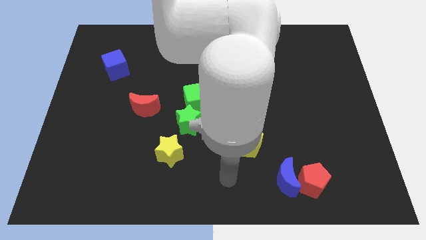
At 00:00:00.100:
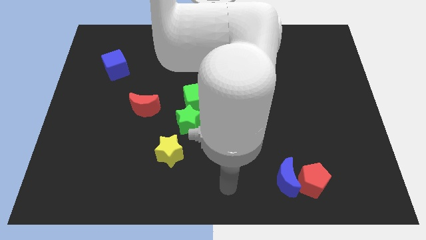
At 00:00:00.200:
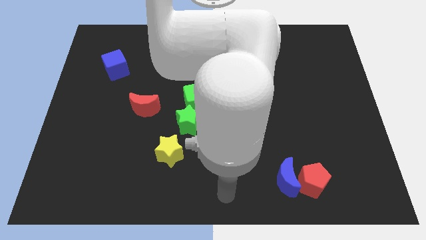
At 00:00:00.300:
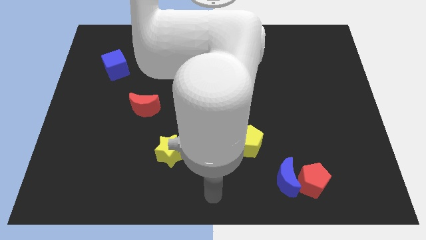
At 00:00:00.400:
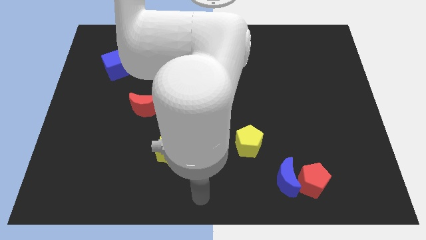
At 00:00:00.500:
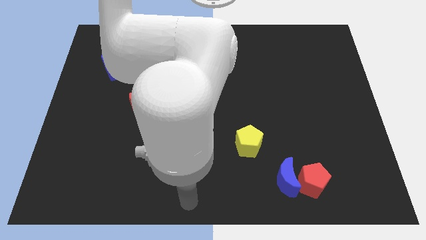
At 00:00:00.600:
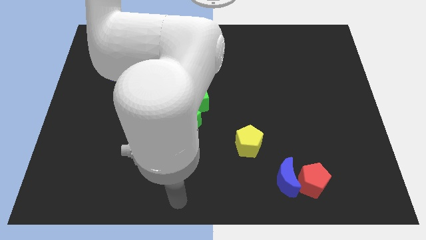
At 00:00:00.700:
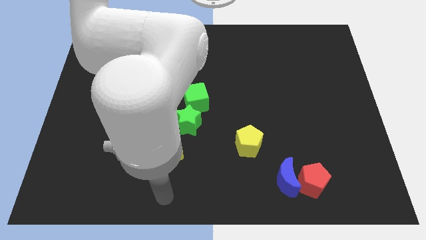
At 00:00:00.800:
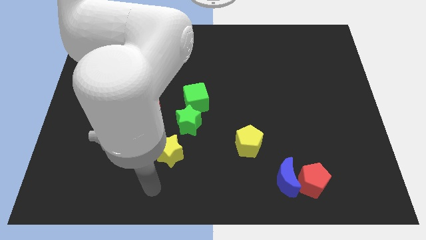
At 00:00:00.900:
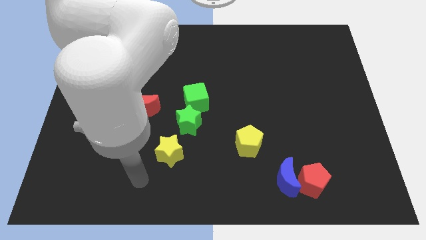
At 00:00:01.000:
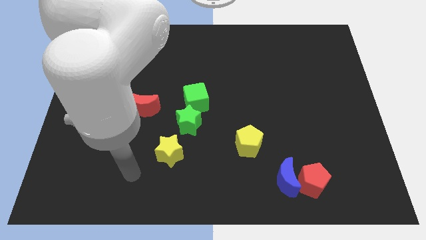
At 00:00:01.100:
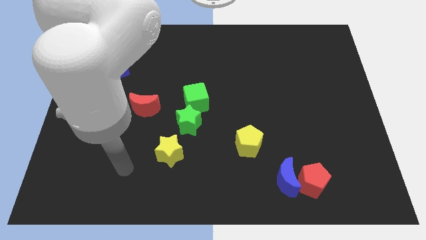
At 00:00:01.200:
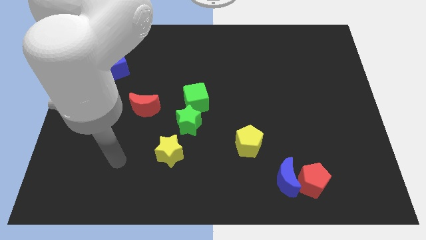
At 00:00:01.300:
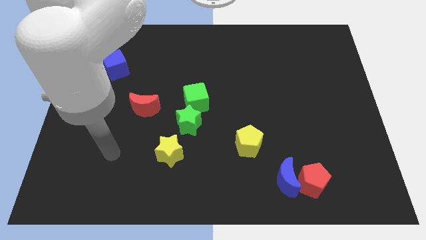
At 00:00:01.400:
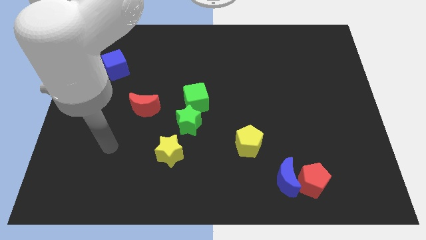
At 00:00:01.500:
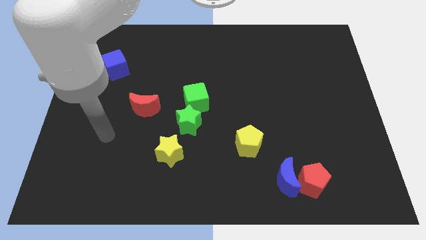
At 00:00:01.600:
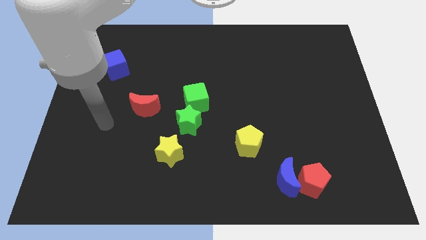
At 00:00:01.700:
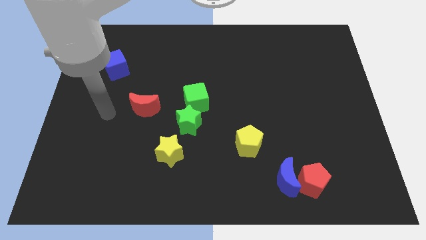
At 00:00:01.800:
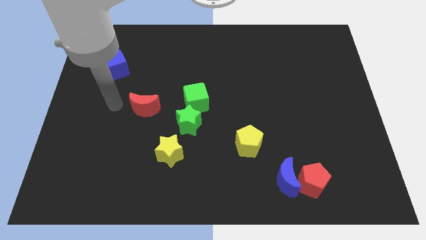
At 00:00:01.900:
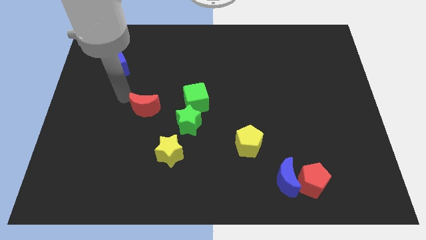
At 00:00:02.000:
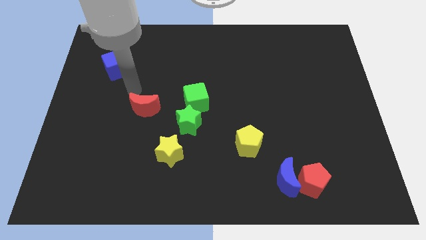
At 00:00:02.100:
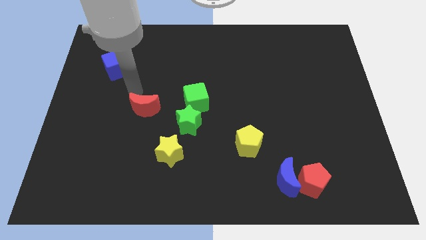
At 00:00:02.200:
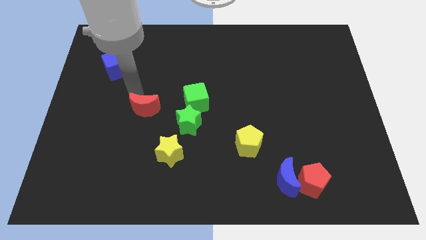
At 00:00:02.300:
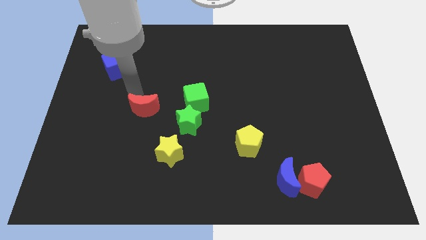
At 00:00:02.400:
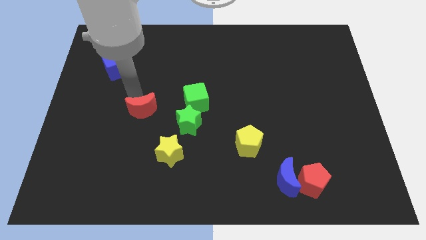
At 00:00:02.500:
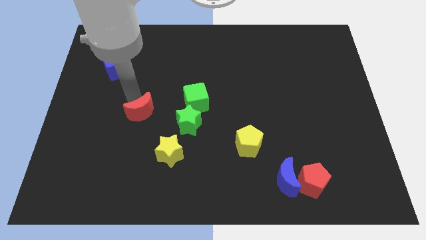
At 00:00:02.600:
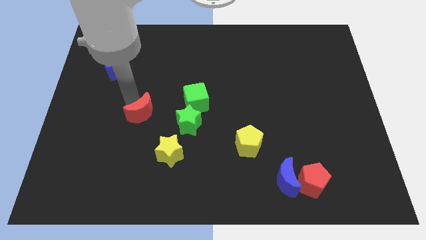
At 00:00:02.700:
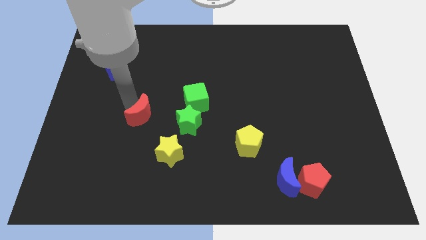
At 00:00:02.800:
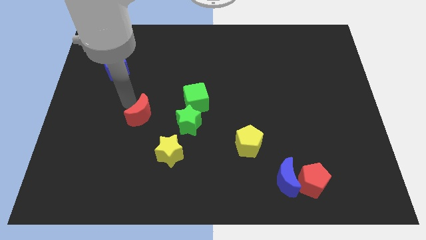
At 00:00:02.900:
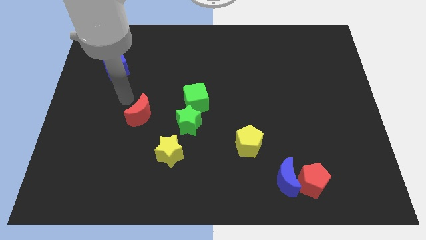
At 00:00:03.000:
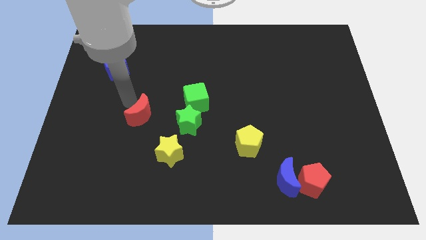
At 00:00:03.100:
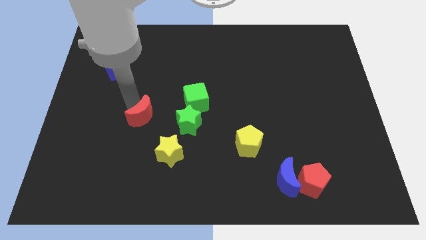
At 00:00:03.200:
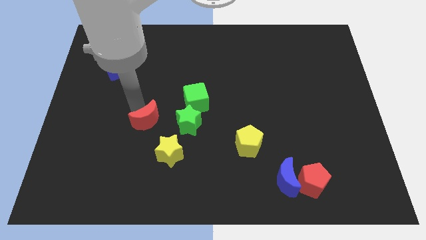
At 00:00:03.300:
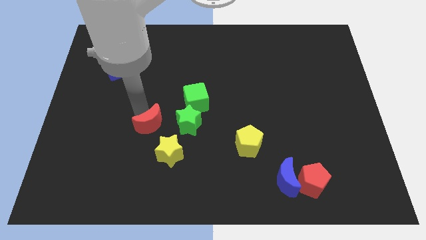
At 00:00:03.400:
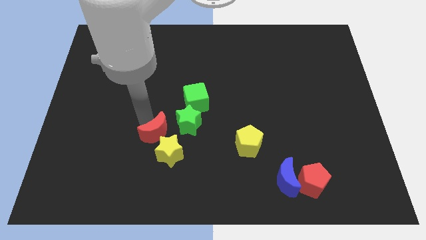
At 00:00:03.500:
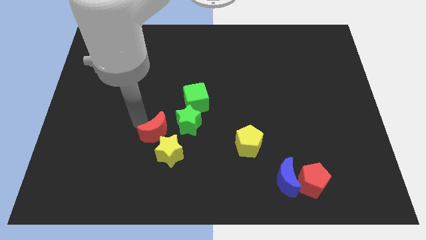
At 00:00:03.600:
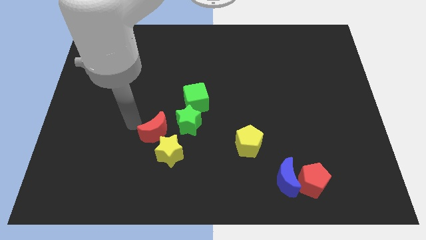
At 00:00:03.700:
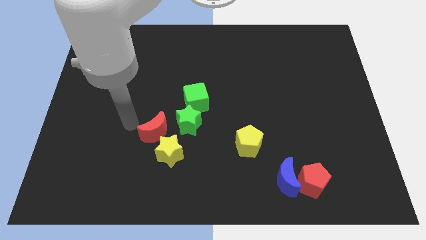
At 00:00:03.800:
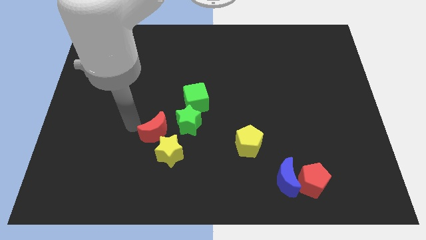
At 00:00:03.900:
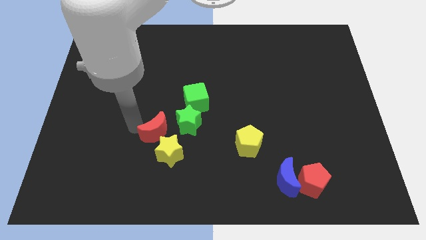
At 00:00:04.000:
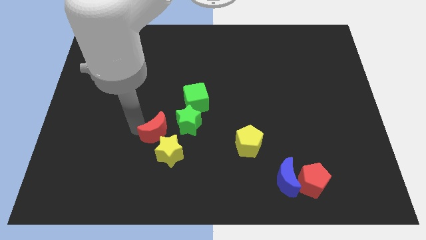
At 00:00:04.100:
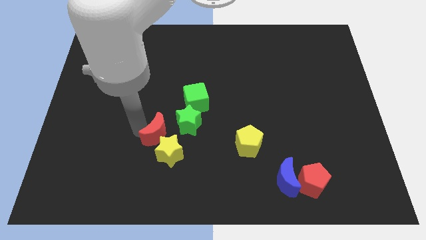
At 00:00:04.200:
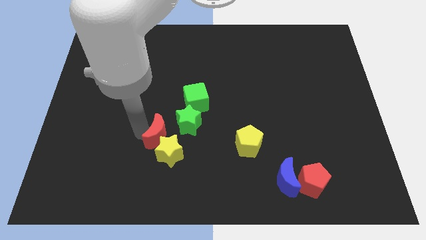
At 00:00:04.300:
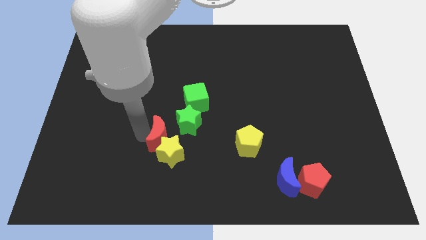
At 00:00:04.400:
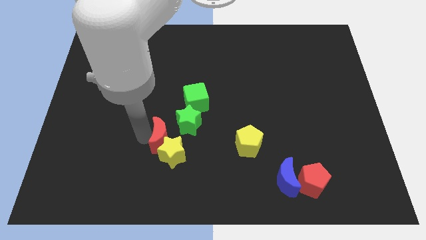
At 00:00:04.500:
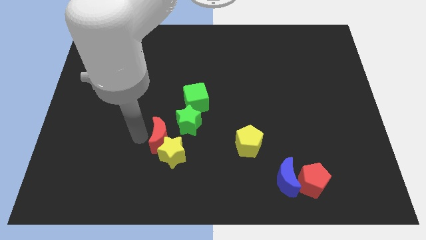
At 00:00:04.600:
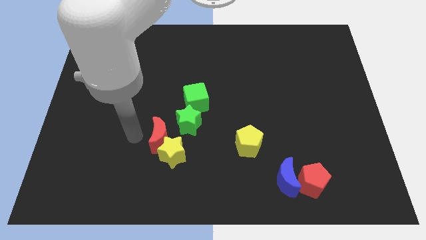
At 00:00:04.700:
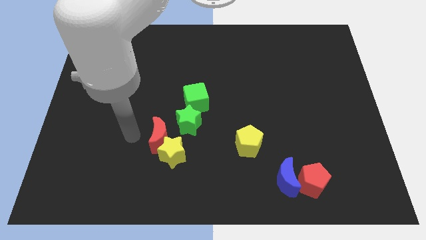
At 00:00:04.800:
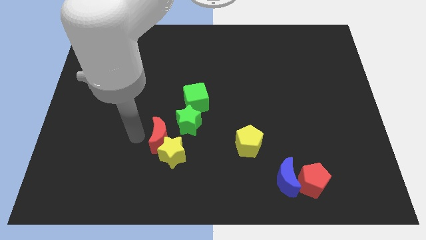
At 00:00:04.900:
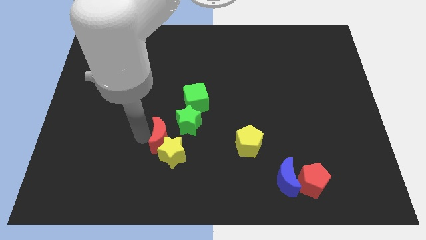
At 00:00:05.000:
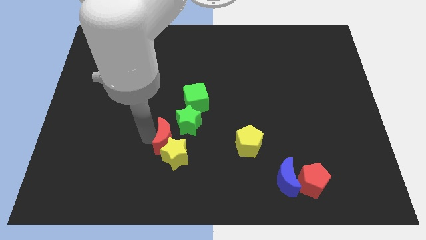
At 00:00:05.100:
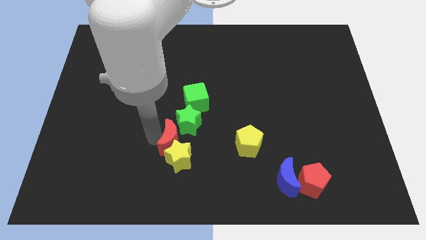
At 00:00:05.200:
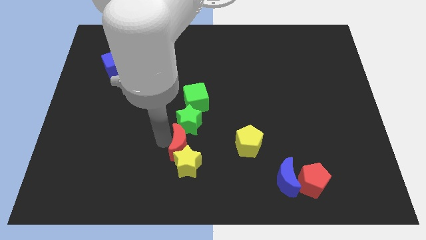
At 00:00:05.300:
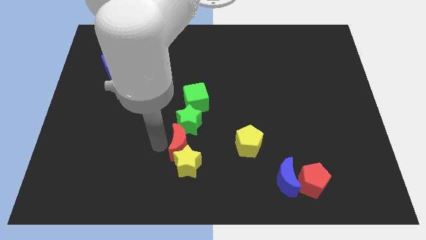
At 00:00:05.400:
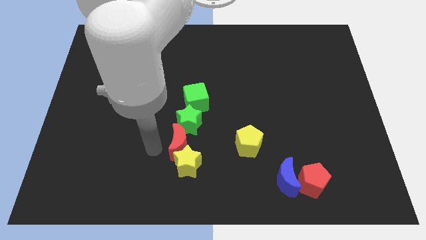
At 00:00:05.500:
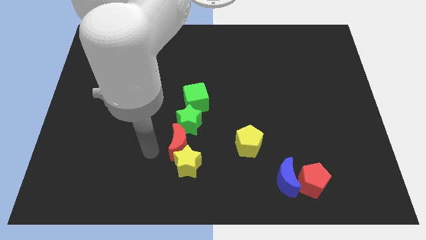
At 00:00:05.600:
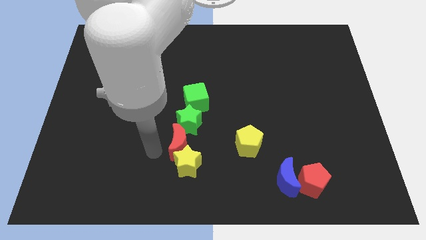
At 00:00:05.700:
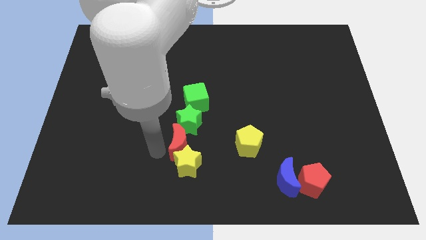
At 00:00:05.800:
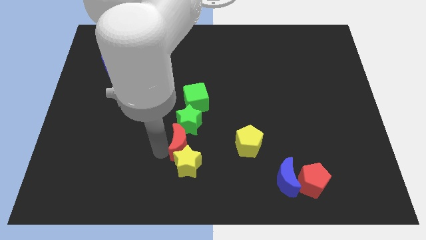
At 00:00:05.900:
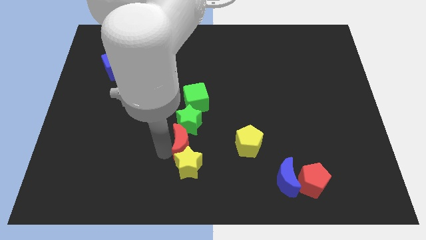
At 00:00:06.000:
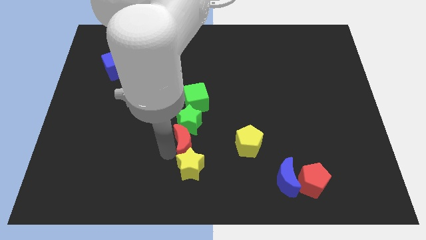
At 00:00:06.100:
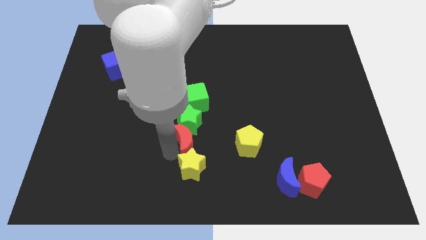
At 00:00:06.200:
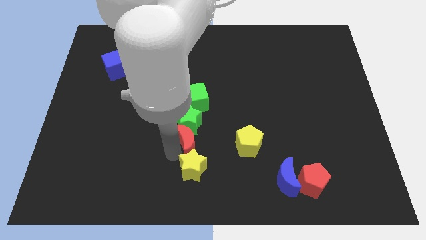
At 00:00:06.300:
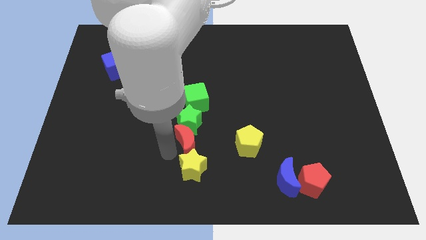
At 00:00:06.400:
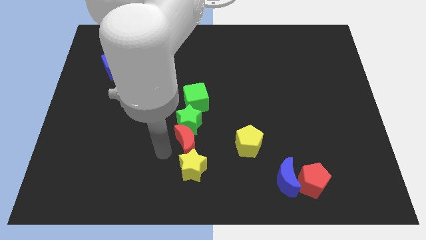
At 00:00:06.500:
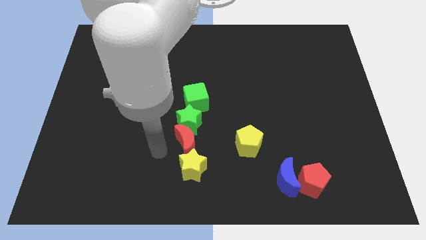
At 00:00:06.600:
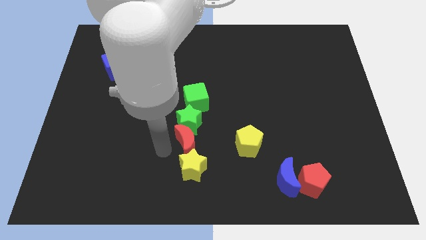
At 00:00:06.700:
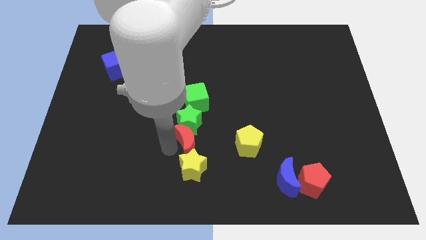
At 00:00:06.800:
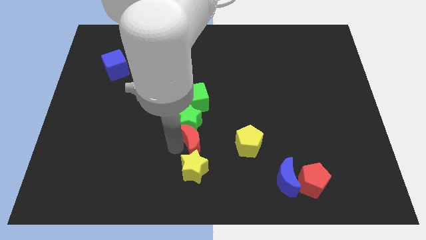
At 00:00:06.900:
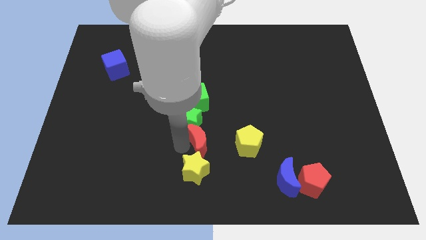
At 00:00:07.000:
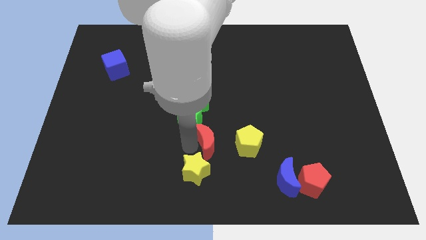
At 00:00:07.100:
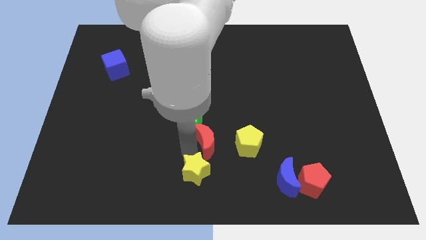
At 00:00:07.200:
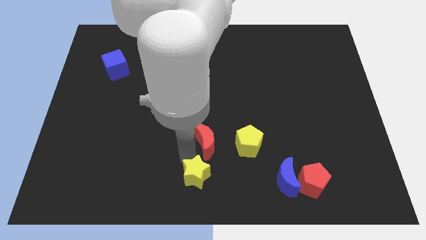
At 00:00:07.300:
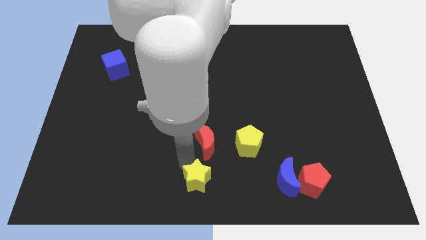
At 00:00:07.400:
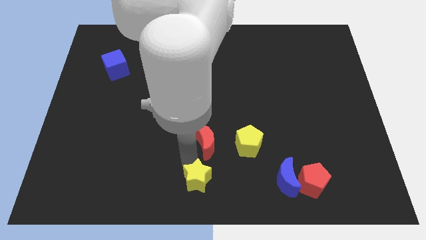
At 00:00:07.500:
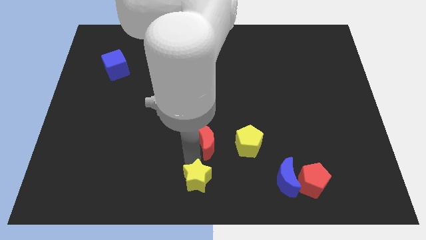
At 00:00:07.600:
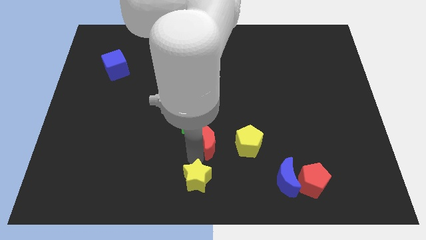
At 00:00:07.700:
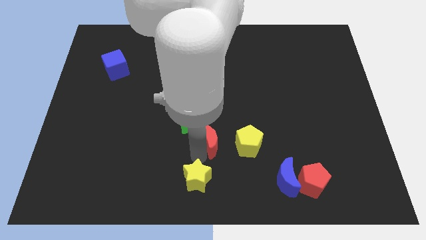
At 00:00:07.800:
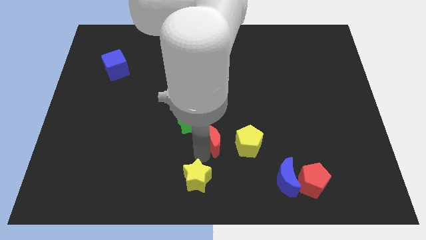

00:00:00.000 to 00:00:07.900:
push the red moon to the top left of the yellow pentagon
